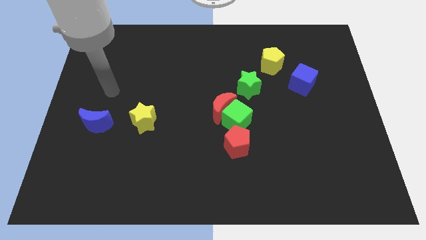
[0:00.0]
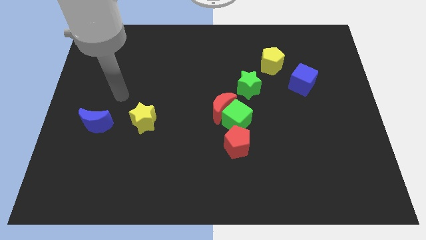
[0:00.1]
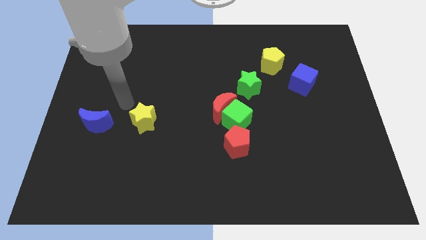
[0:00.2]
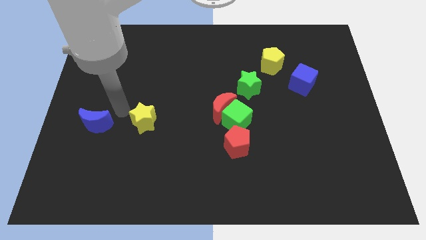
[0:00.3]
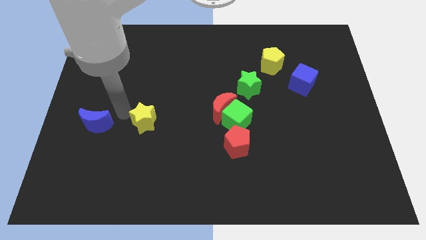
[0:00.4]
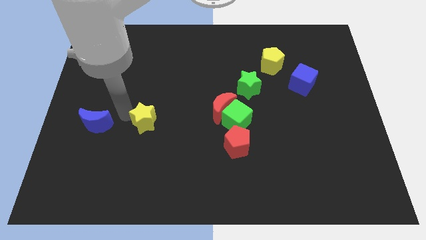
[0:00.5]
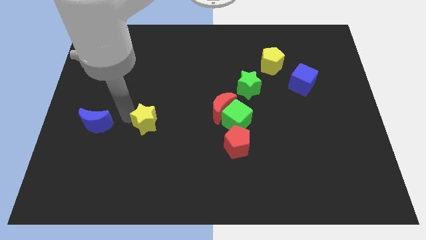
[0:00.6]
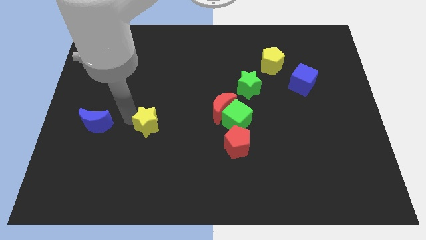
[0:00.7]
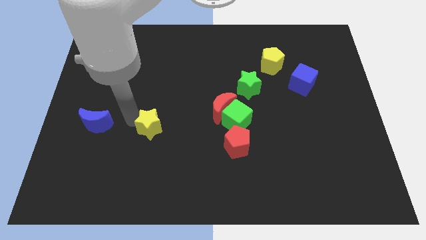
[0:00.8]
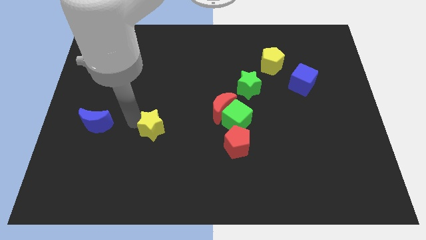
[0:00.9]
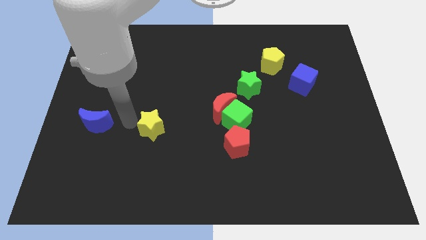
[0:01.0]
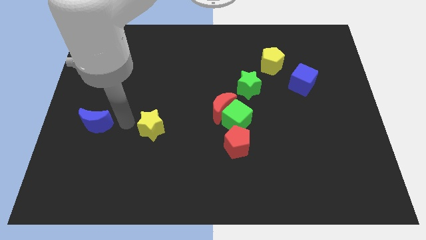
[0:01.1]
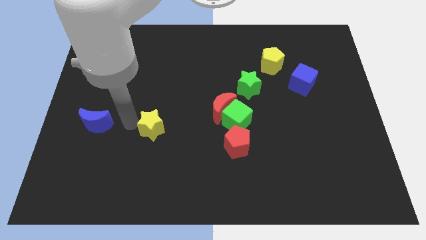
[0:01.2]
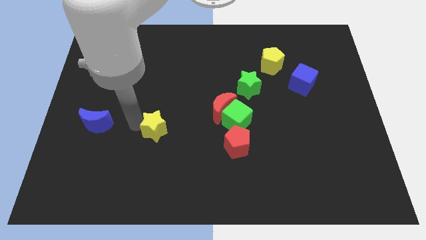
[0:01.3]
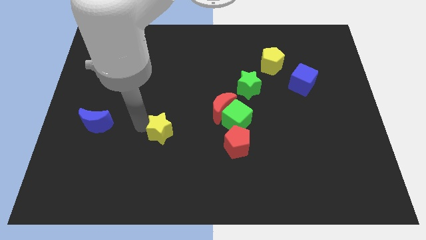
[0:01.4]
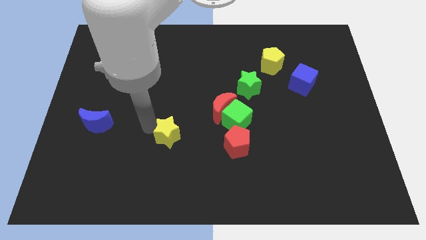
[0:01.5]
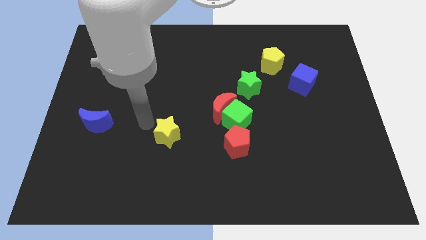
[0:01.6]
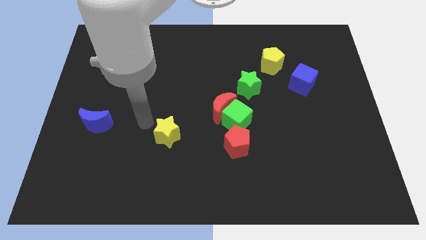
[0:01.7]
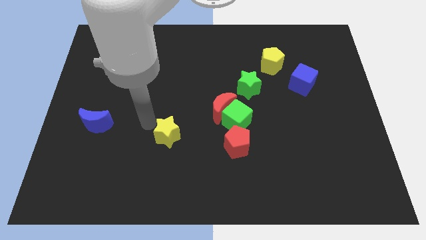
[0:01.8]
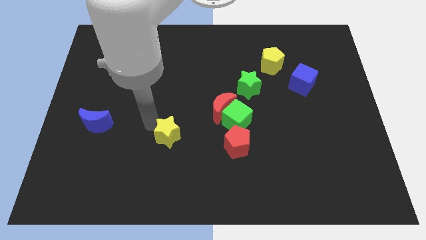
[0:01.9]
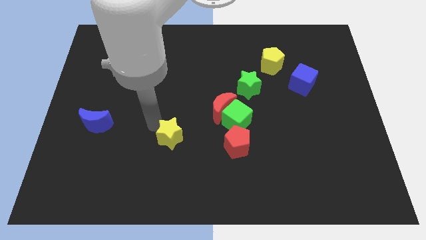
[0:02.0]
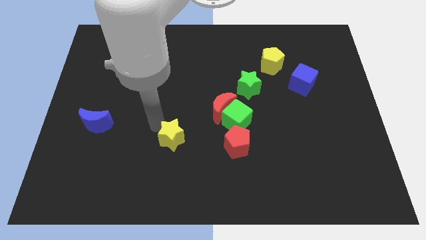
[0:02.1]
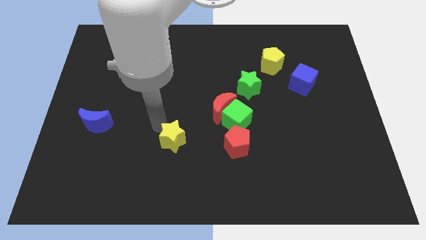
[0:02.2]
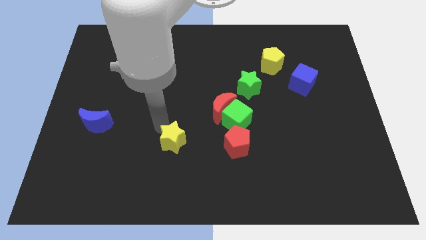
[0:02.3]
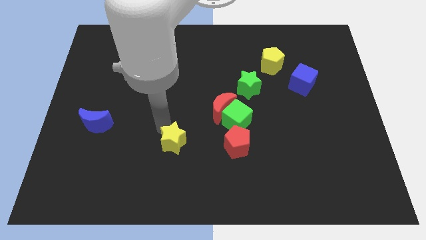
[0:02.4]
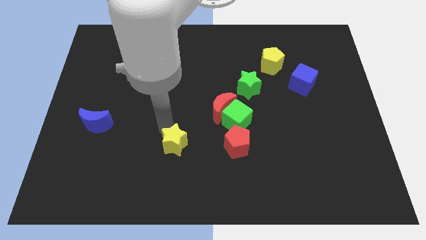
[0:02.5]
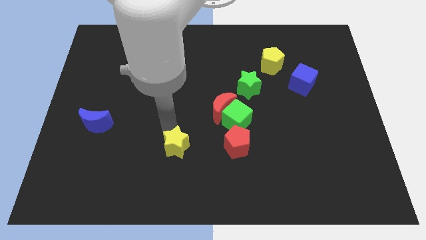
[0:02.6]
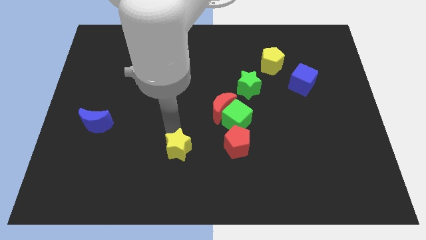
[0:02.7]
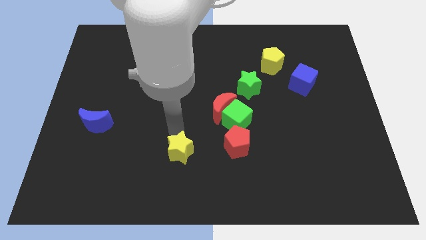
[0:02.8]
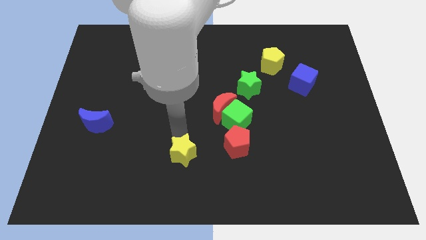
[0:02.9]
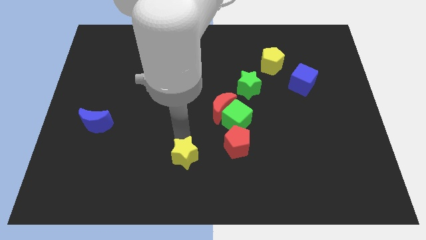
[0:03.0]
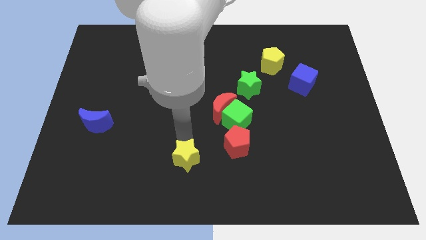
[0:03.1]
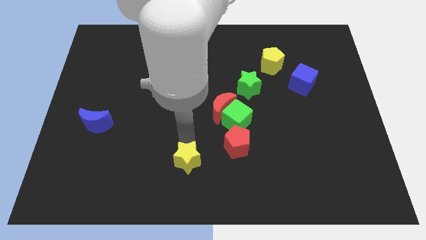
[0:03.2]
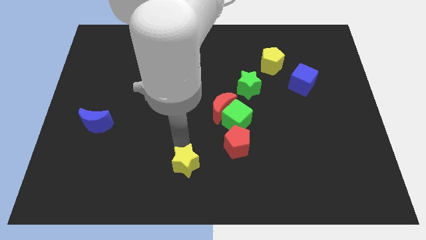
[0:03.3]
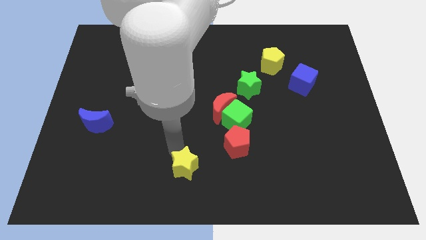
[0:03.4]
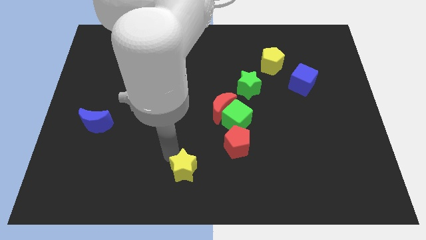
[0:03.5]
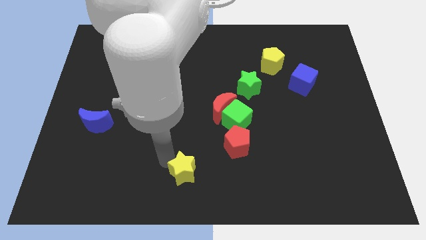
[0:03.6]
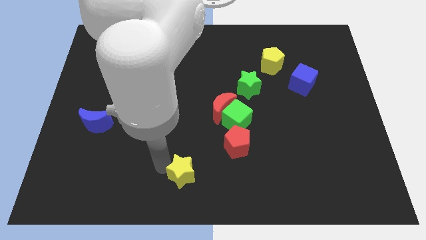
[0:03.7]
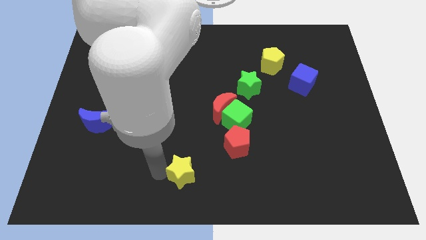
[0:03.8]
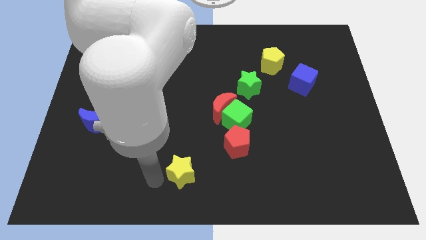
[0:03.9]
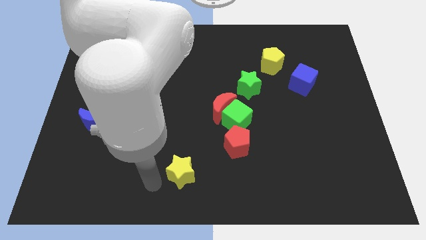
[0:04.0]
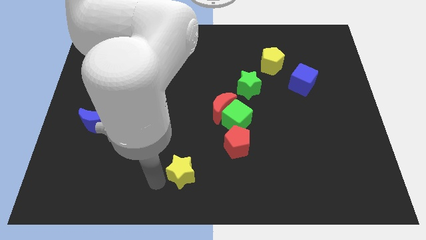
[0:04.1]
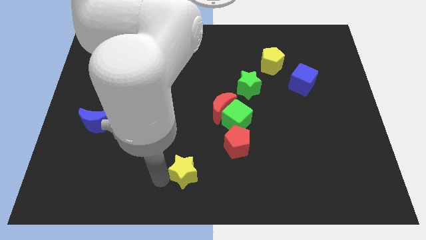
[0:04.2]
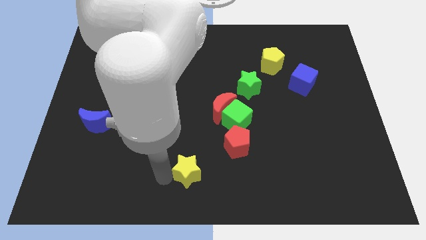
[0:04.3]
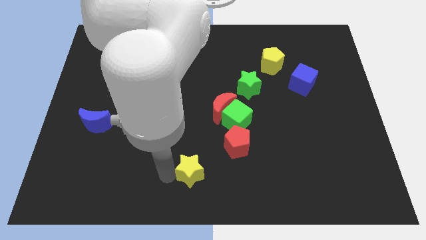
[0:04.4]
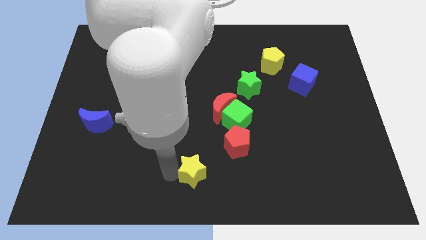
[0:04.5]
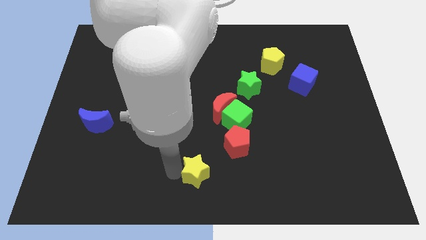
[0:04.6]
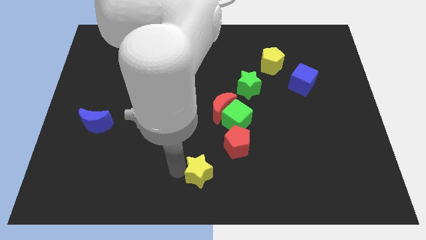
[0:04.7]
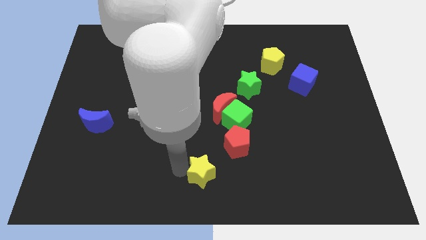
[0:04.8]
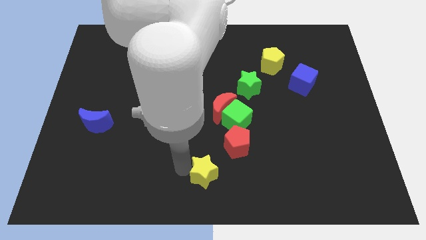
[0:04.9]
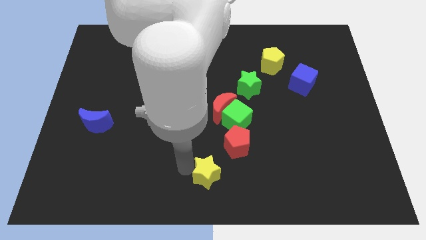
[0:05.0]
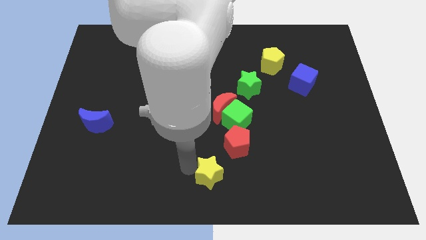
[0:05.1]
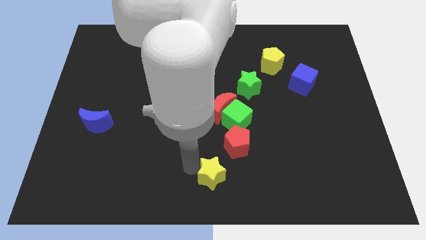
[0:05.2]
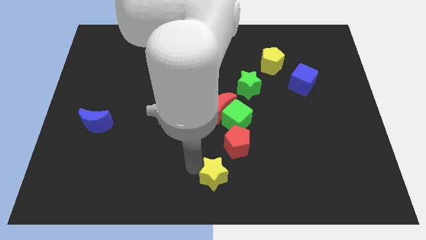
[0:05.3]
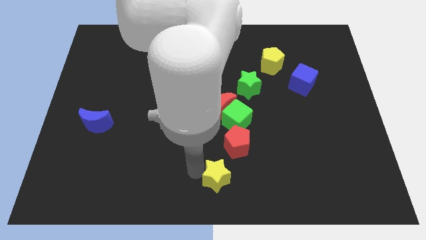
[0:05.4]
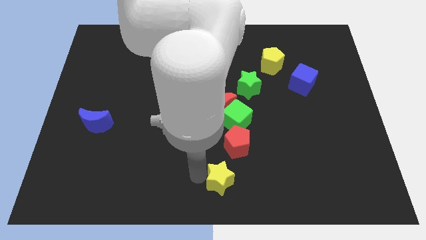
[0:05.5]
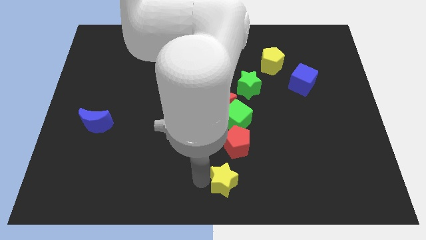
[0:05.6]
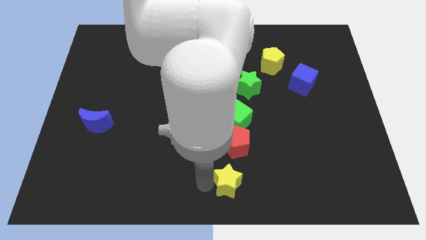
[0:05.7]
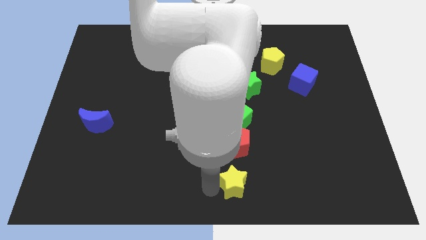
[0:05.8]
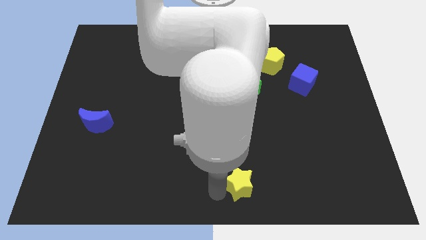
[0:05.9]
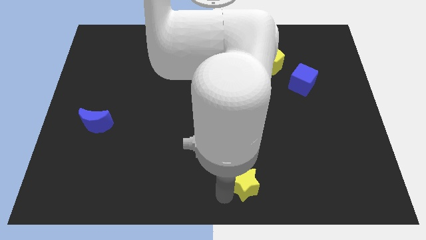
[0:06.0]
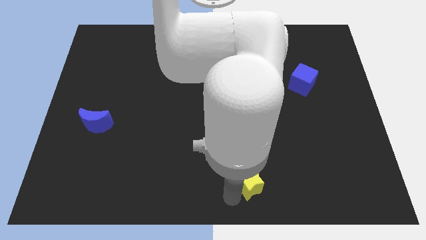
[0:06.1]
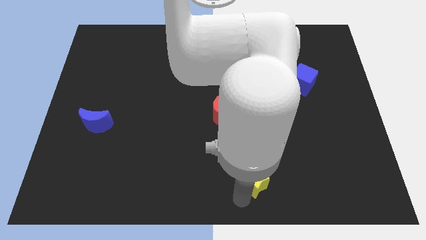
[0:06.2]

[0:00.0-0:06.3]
slide the yellow star to the bottom right of the red pentagon
